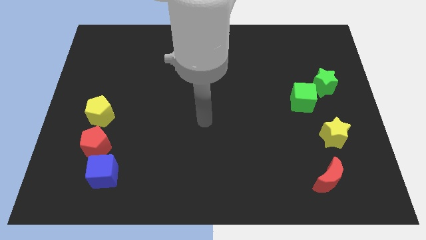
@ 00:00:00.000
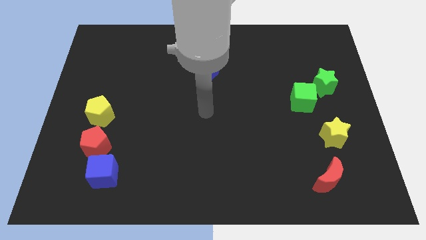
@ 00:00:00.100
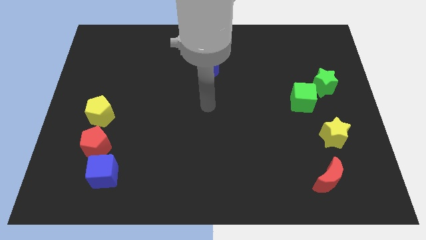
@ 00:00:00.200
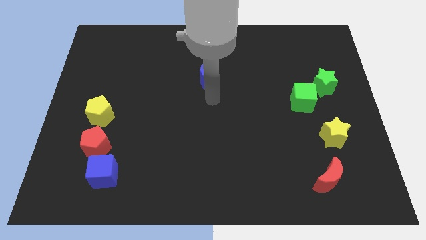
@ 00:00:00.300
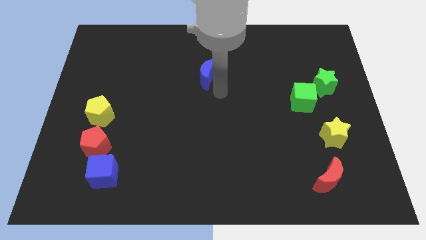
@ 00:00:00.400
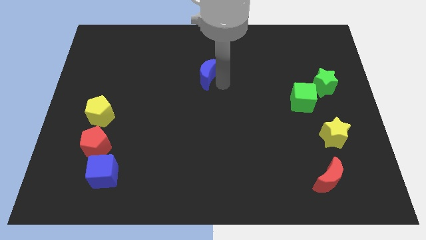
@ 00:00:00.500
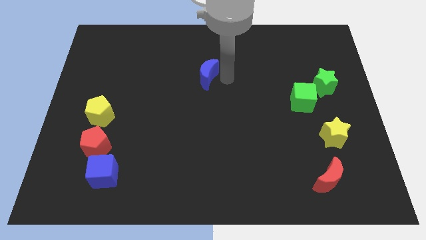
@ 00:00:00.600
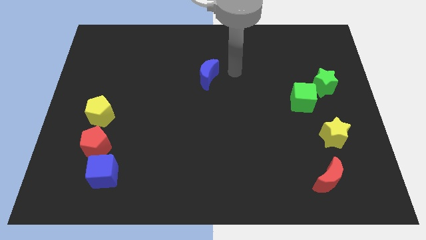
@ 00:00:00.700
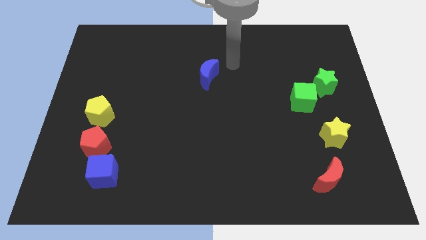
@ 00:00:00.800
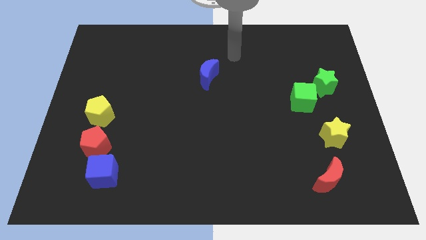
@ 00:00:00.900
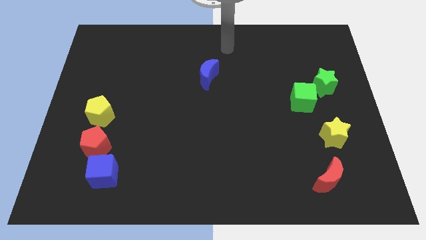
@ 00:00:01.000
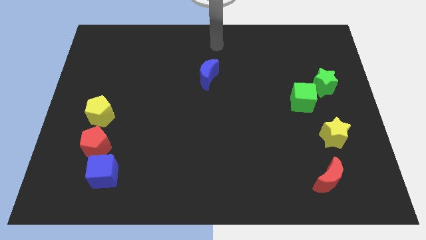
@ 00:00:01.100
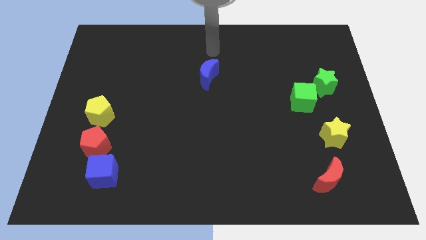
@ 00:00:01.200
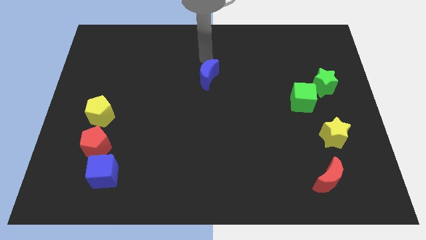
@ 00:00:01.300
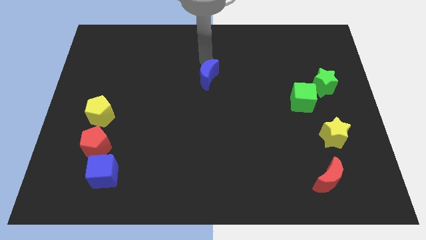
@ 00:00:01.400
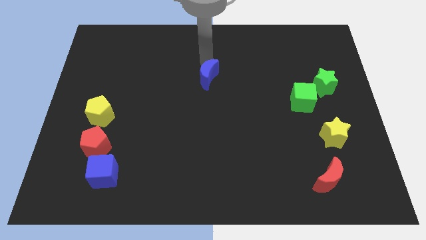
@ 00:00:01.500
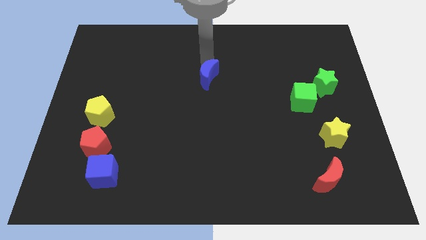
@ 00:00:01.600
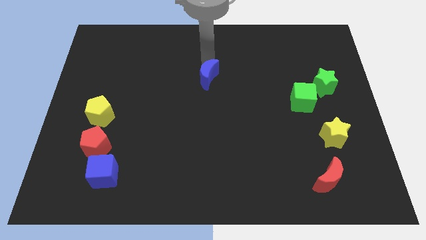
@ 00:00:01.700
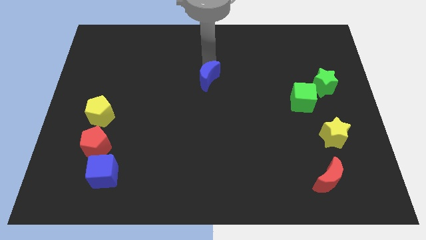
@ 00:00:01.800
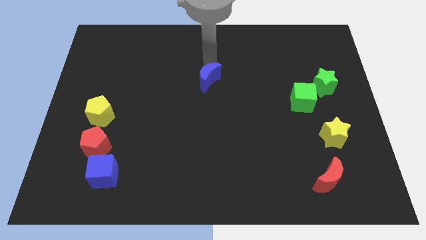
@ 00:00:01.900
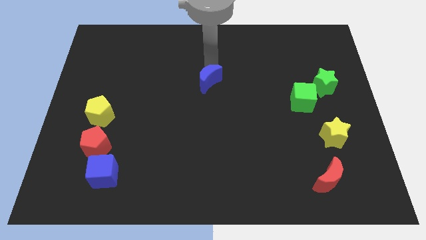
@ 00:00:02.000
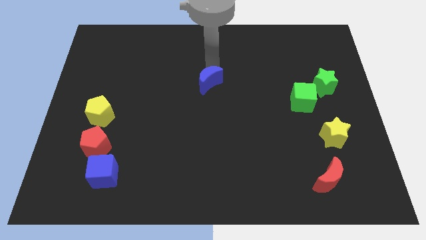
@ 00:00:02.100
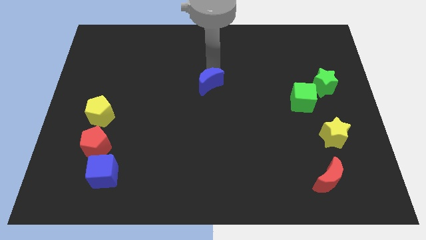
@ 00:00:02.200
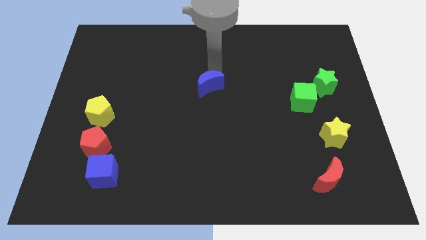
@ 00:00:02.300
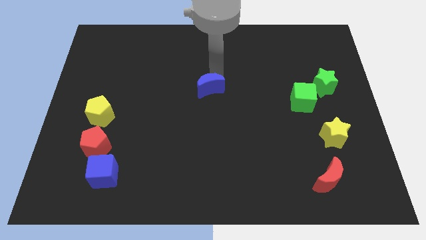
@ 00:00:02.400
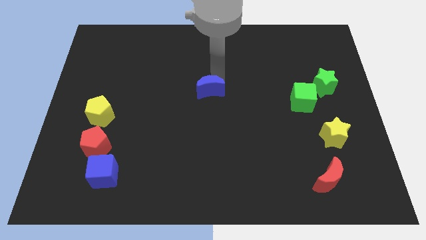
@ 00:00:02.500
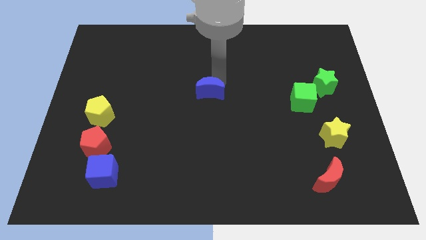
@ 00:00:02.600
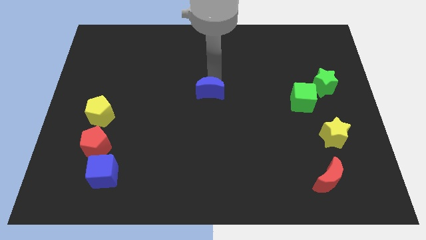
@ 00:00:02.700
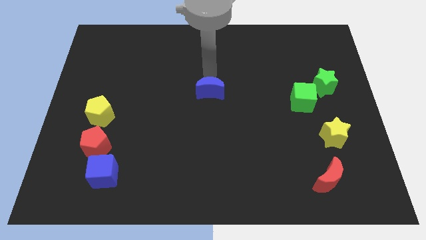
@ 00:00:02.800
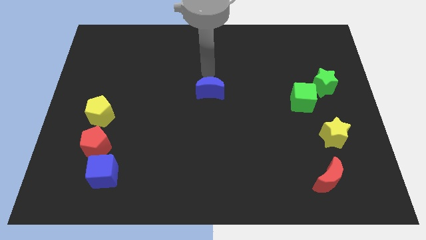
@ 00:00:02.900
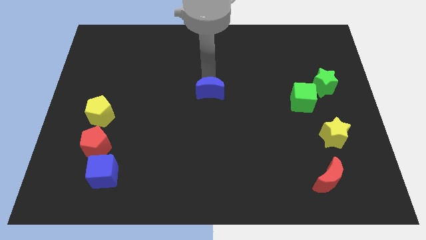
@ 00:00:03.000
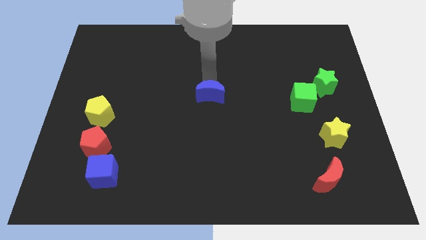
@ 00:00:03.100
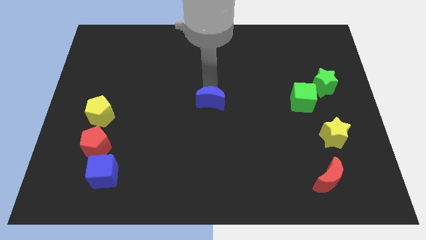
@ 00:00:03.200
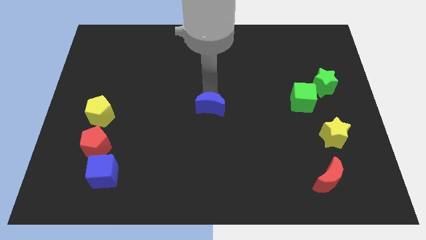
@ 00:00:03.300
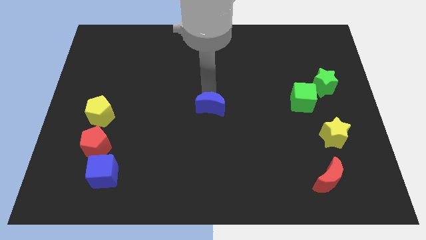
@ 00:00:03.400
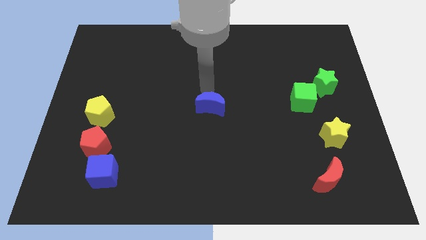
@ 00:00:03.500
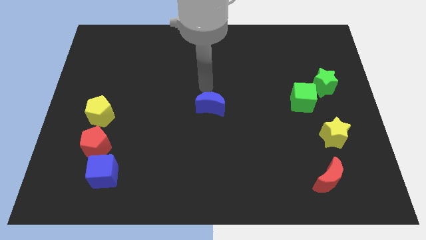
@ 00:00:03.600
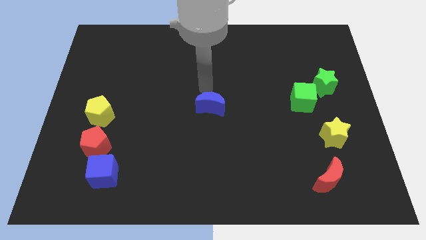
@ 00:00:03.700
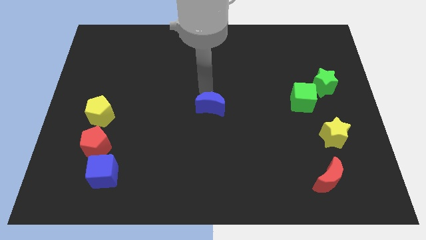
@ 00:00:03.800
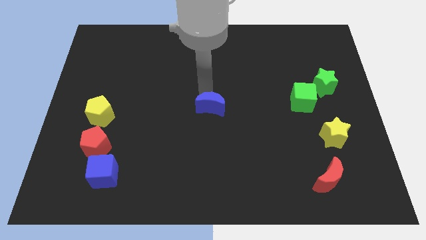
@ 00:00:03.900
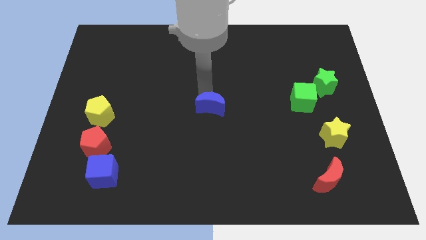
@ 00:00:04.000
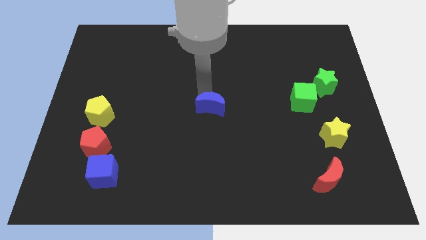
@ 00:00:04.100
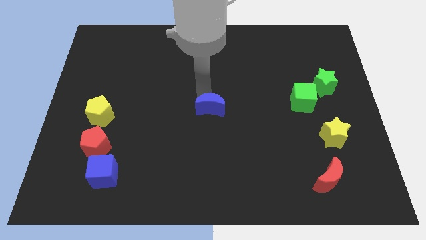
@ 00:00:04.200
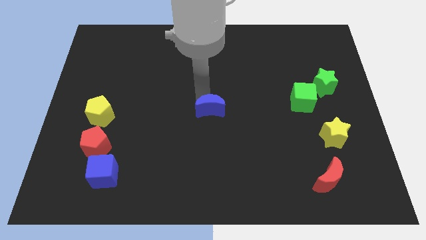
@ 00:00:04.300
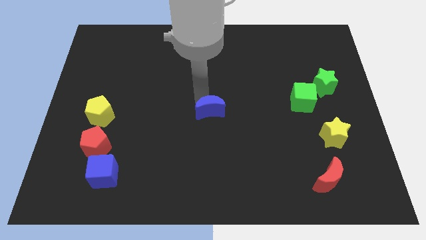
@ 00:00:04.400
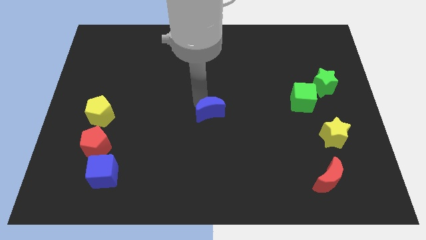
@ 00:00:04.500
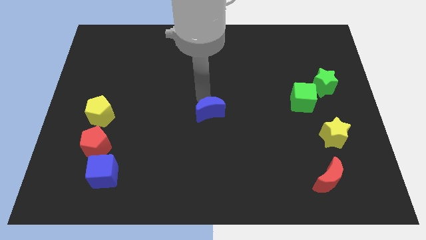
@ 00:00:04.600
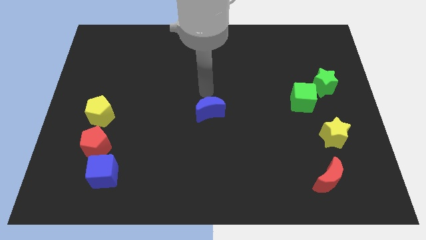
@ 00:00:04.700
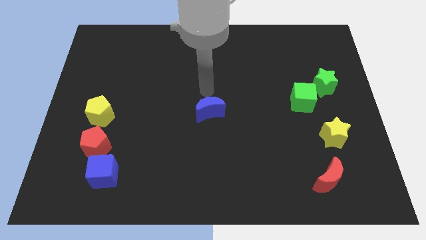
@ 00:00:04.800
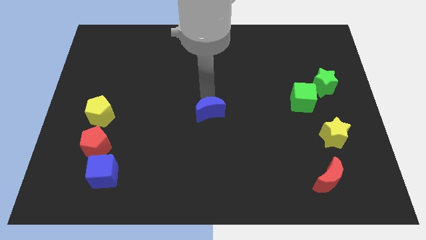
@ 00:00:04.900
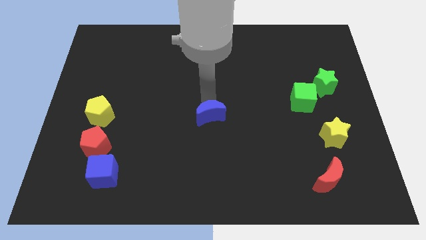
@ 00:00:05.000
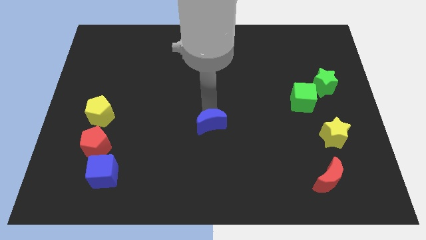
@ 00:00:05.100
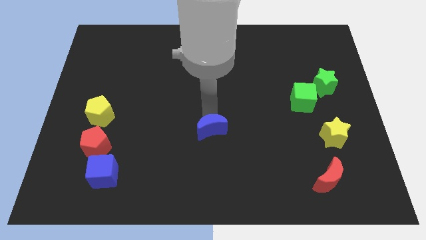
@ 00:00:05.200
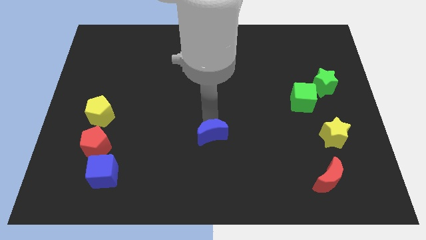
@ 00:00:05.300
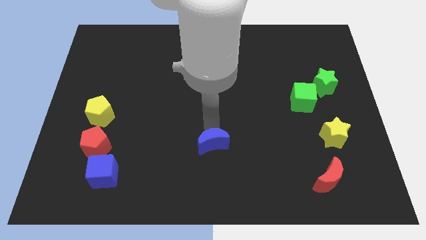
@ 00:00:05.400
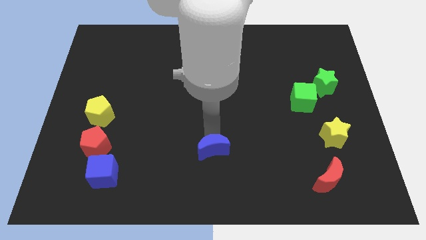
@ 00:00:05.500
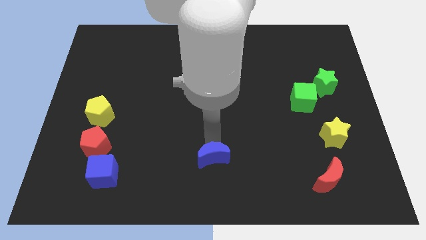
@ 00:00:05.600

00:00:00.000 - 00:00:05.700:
push the blue moon to the bottom

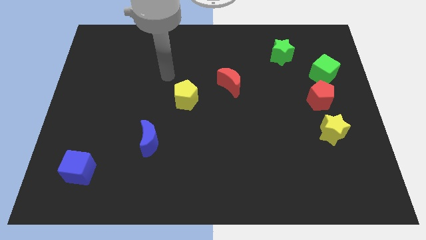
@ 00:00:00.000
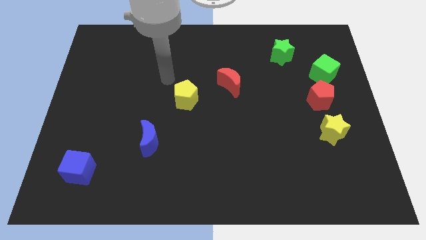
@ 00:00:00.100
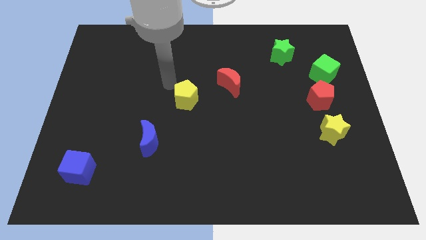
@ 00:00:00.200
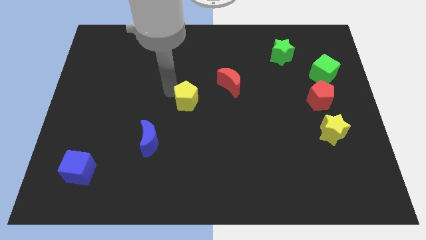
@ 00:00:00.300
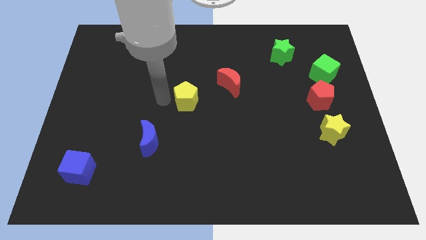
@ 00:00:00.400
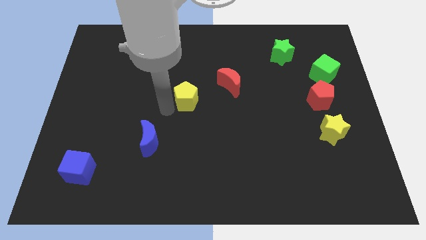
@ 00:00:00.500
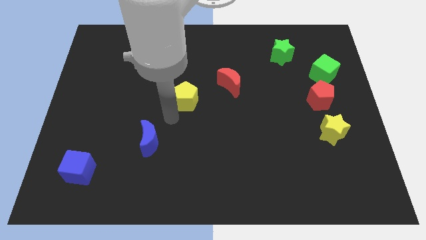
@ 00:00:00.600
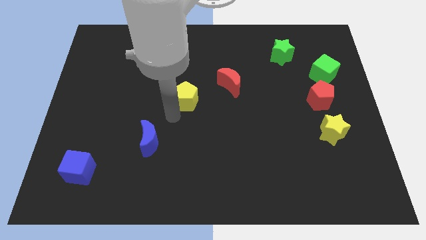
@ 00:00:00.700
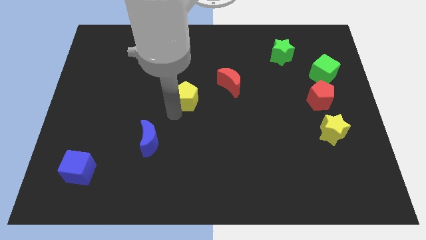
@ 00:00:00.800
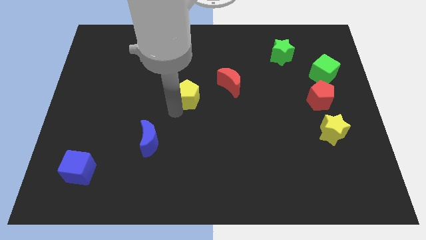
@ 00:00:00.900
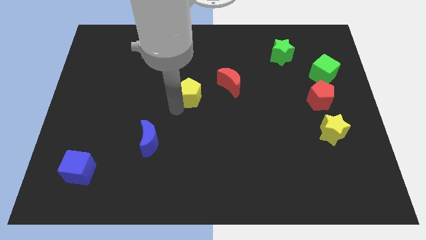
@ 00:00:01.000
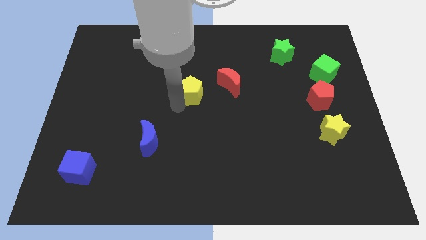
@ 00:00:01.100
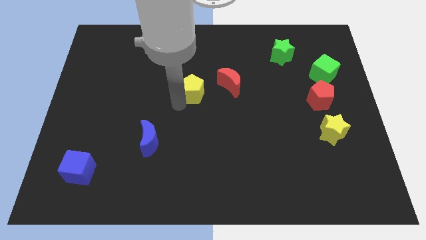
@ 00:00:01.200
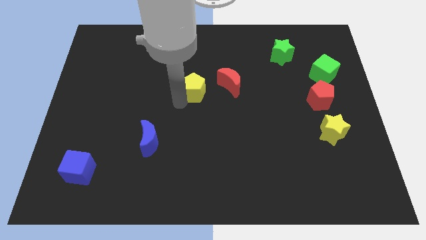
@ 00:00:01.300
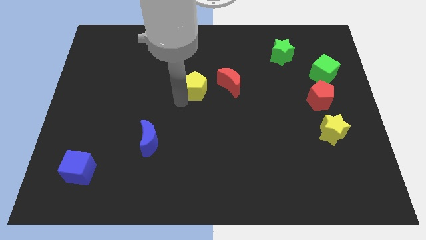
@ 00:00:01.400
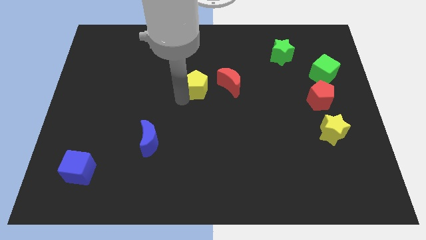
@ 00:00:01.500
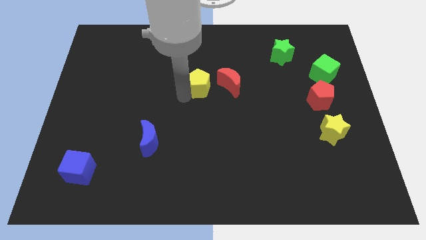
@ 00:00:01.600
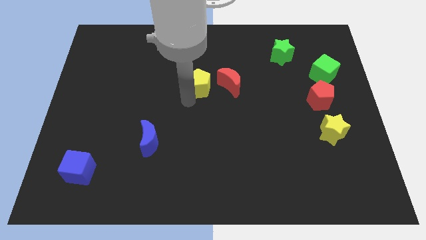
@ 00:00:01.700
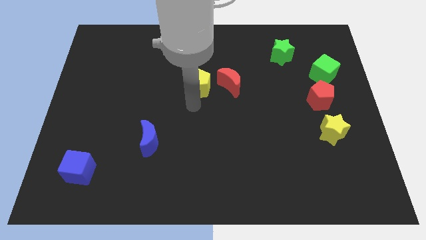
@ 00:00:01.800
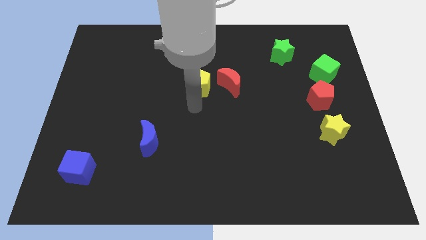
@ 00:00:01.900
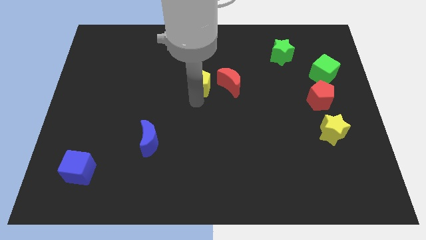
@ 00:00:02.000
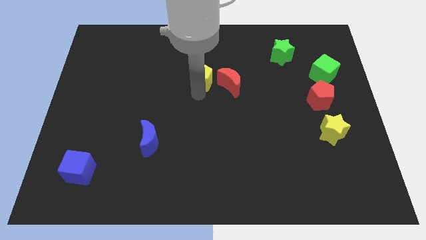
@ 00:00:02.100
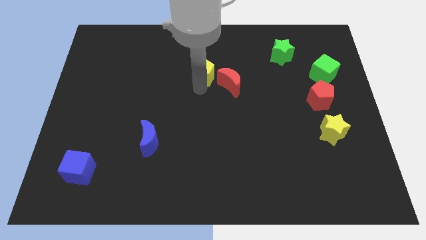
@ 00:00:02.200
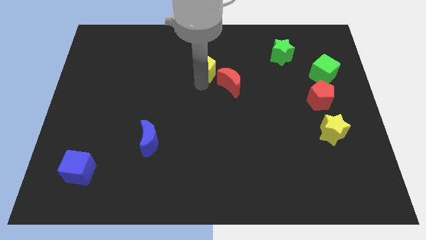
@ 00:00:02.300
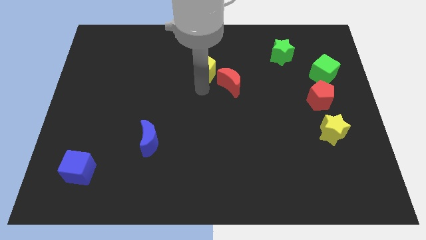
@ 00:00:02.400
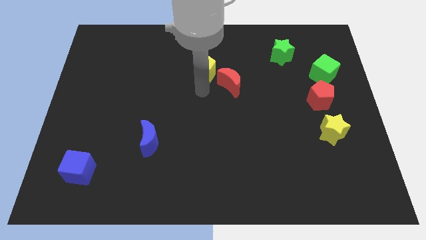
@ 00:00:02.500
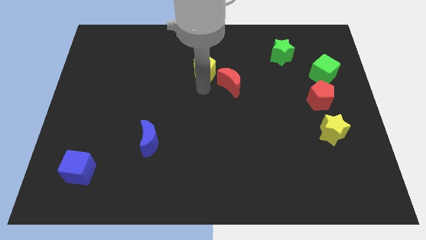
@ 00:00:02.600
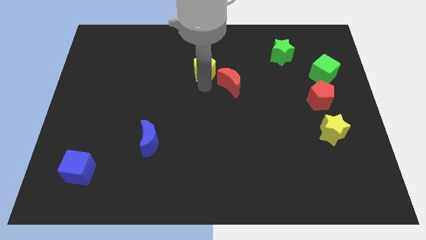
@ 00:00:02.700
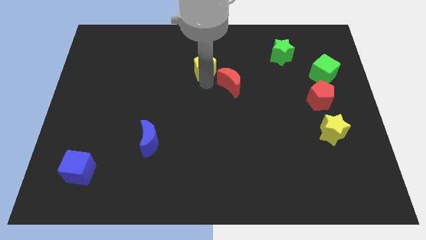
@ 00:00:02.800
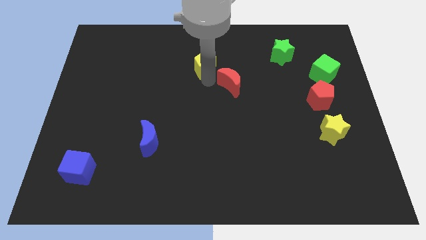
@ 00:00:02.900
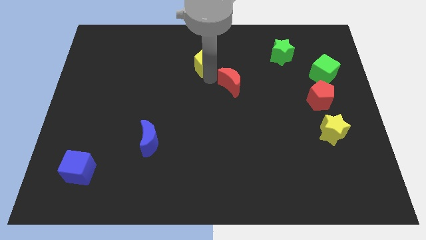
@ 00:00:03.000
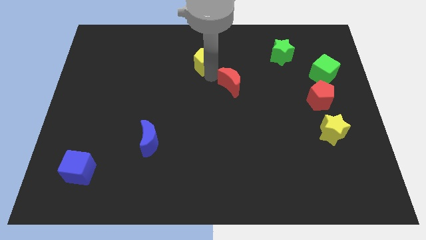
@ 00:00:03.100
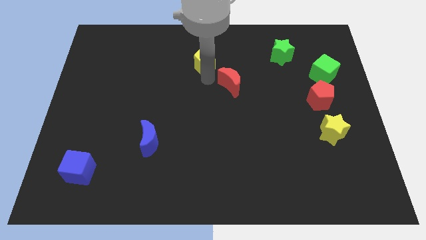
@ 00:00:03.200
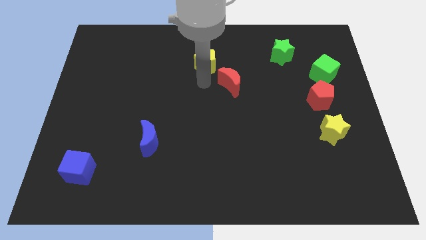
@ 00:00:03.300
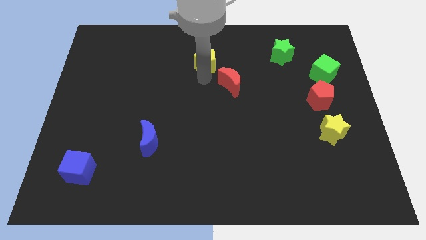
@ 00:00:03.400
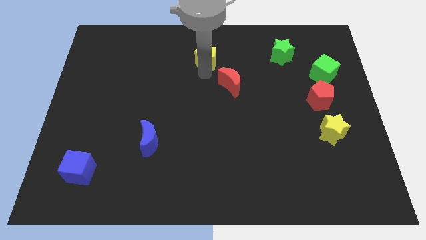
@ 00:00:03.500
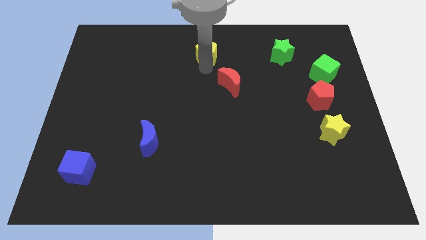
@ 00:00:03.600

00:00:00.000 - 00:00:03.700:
put the yellow pentagon to the top
